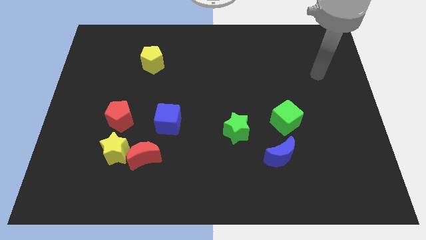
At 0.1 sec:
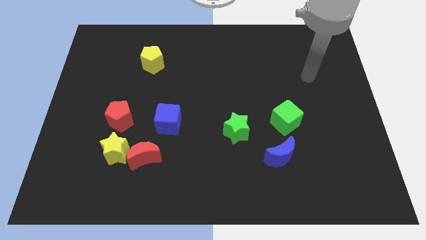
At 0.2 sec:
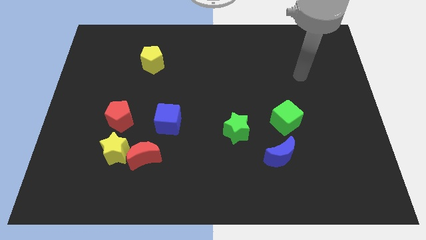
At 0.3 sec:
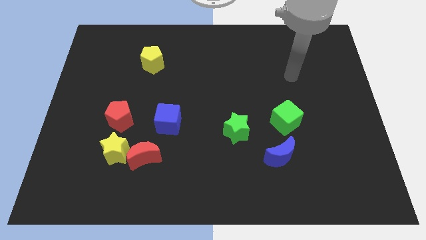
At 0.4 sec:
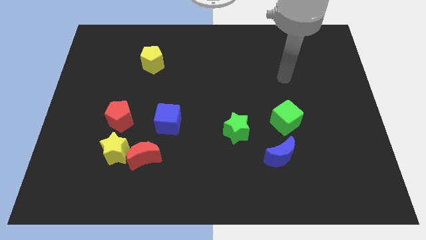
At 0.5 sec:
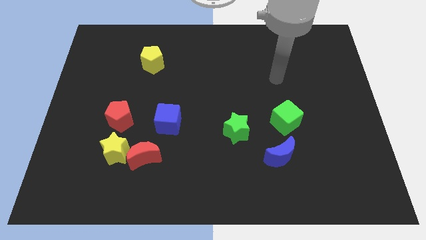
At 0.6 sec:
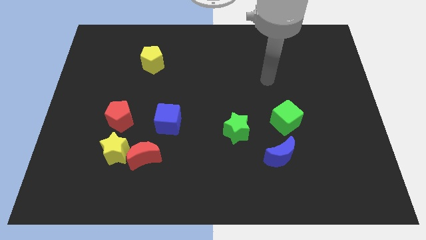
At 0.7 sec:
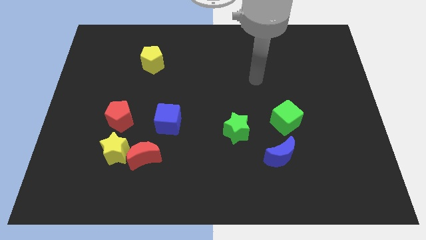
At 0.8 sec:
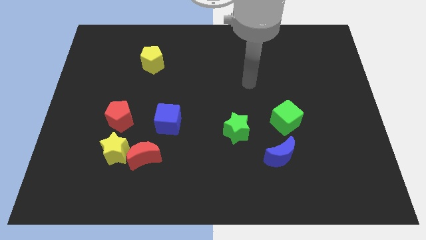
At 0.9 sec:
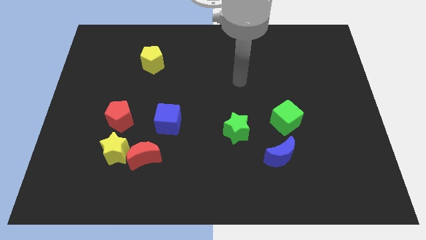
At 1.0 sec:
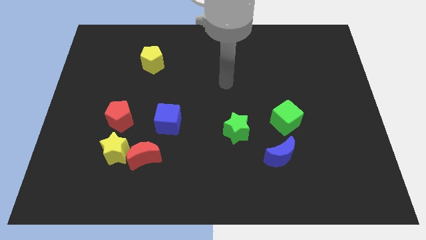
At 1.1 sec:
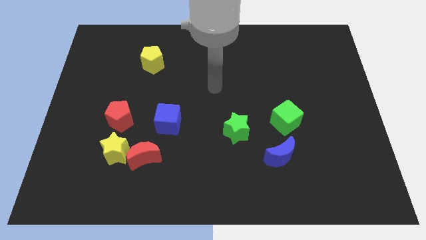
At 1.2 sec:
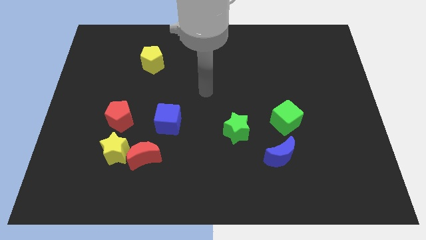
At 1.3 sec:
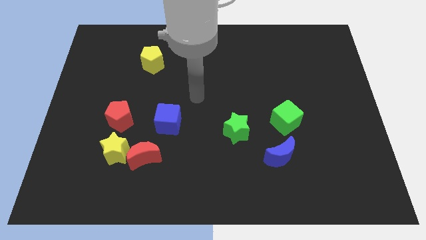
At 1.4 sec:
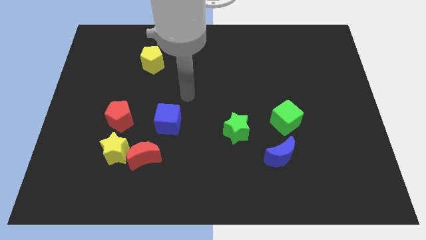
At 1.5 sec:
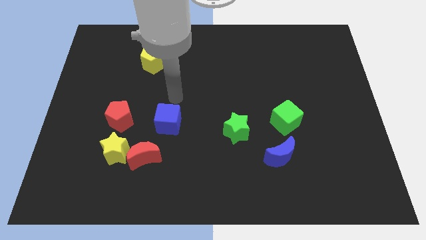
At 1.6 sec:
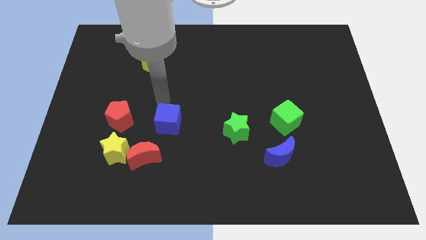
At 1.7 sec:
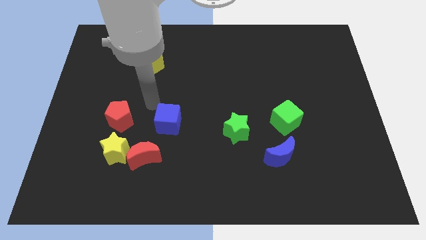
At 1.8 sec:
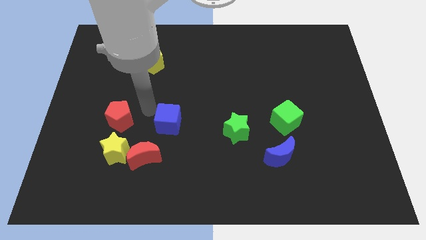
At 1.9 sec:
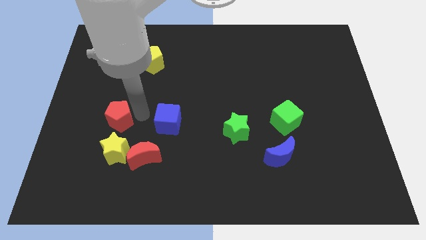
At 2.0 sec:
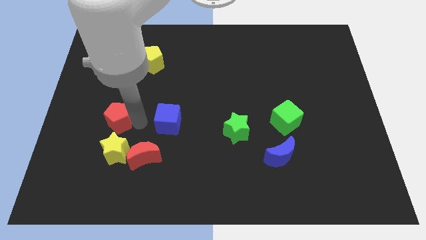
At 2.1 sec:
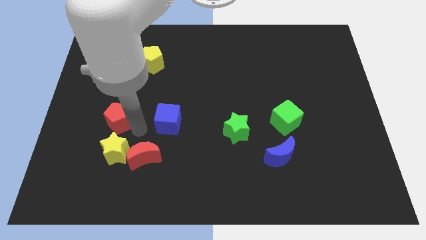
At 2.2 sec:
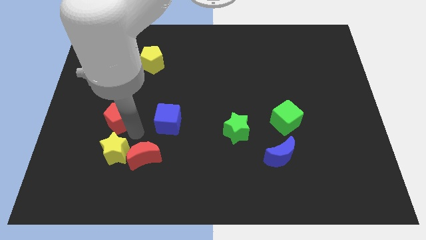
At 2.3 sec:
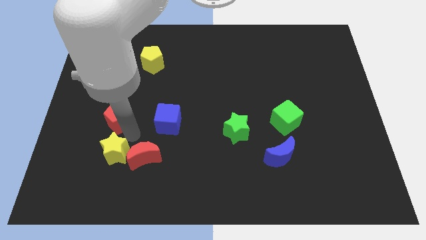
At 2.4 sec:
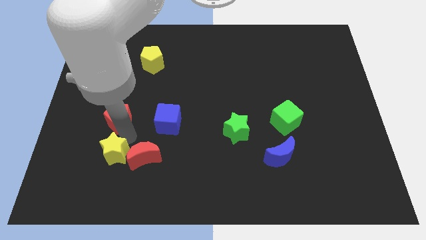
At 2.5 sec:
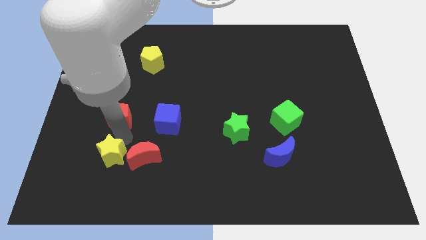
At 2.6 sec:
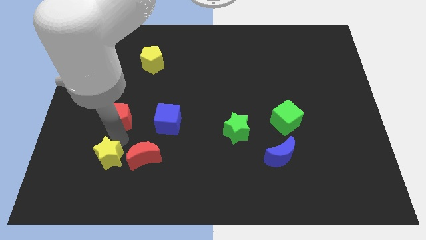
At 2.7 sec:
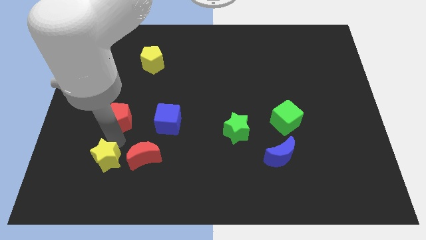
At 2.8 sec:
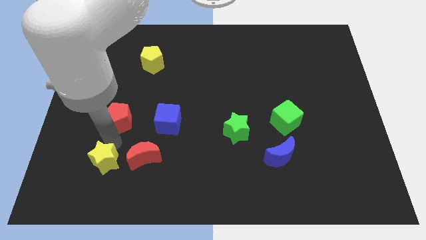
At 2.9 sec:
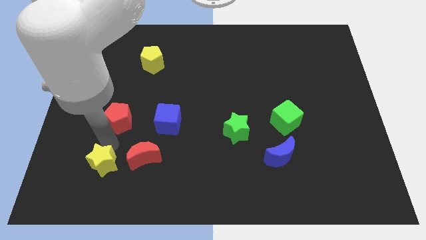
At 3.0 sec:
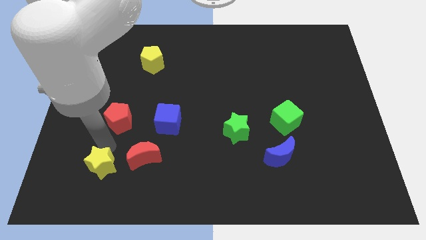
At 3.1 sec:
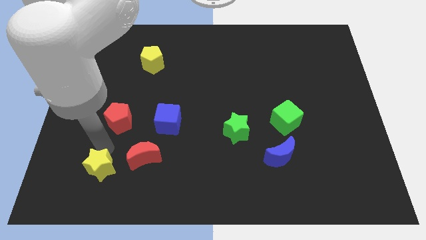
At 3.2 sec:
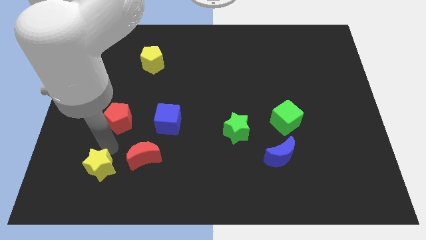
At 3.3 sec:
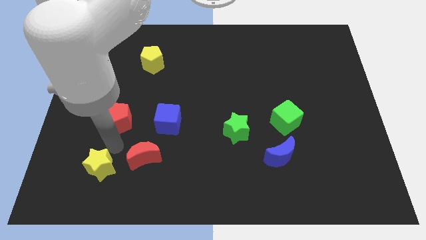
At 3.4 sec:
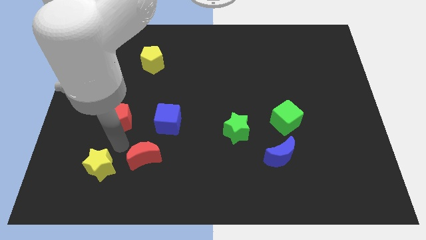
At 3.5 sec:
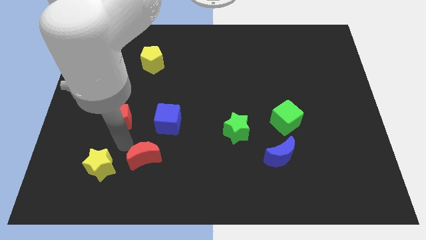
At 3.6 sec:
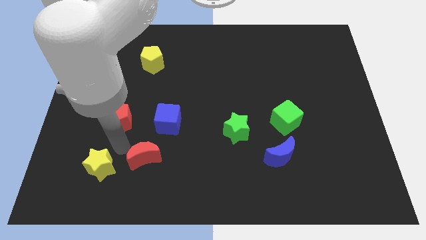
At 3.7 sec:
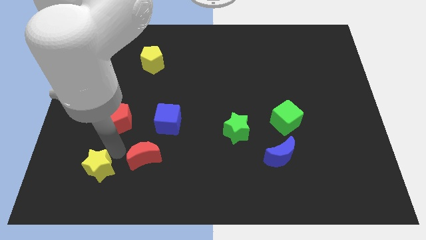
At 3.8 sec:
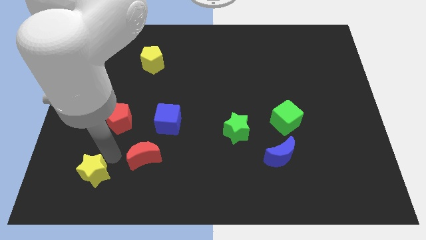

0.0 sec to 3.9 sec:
separate the yellow star from the red moon and red pentagon

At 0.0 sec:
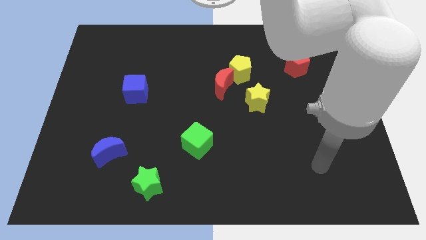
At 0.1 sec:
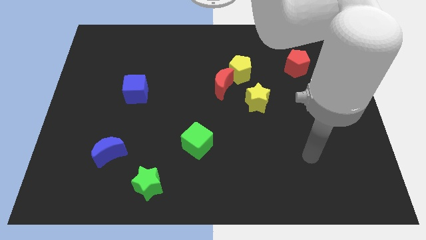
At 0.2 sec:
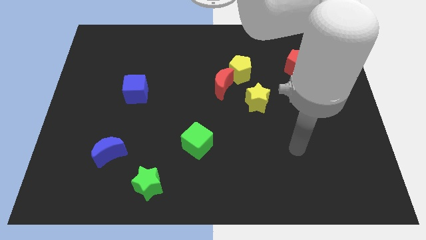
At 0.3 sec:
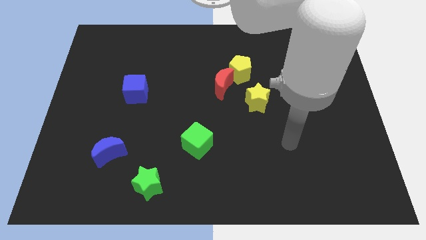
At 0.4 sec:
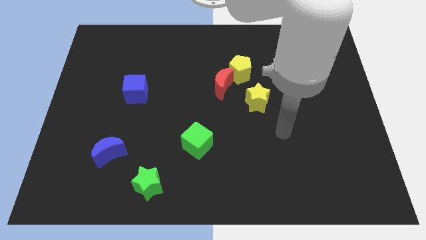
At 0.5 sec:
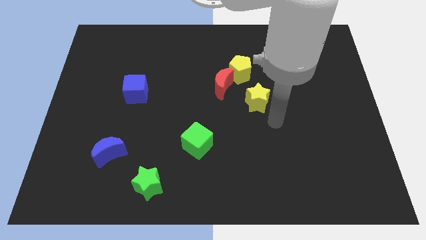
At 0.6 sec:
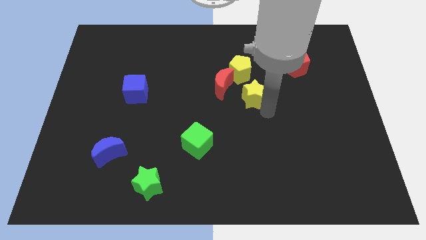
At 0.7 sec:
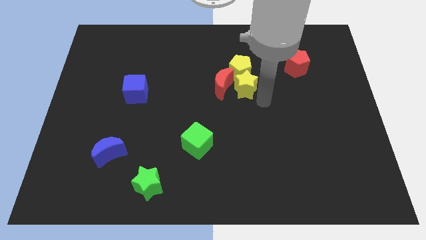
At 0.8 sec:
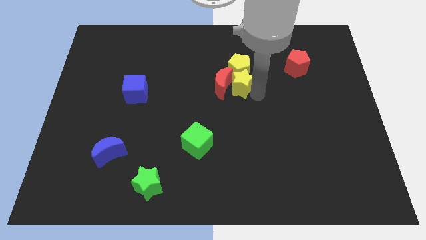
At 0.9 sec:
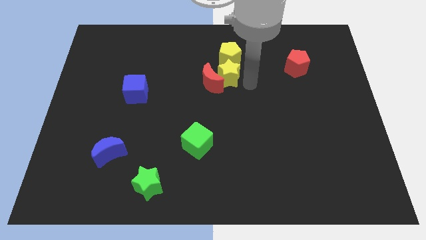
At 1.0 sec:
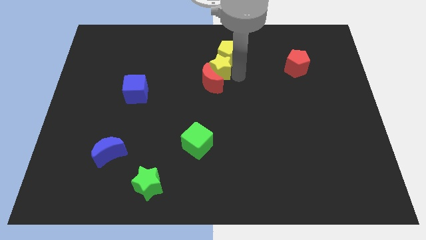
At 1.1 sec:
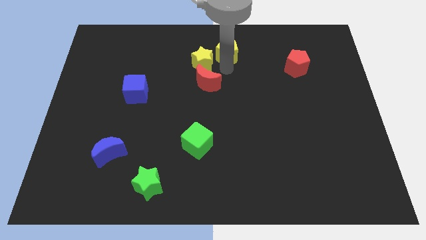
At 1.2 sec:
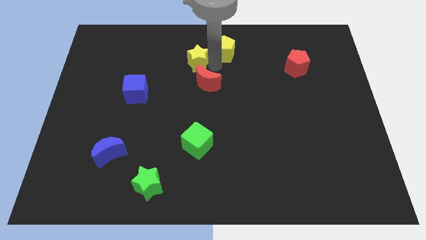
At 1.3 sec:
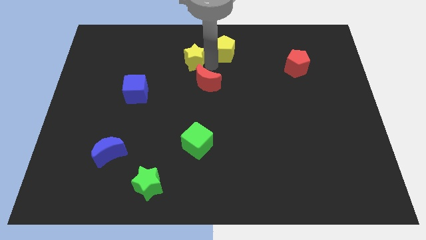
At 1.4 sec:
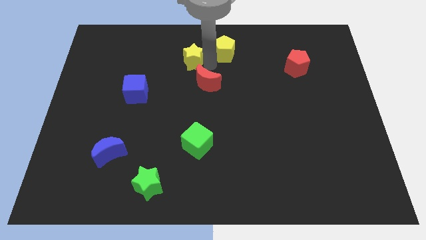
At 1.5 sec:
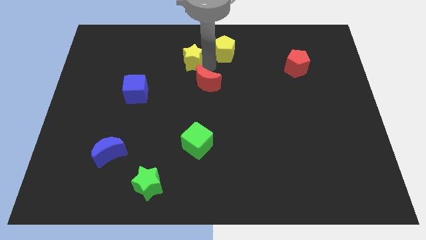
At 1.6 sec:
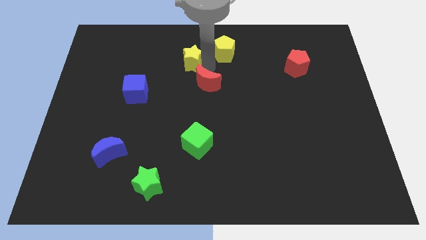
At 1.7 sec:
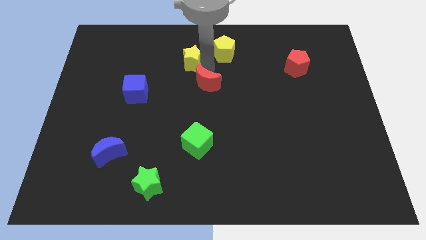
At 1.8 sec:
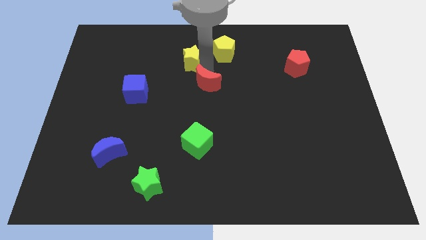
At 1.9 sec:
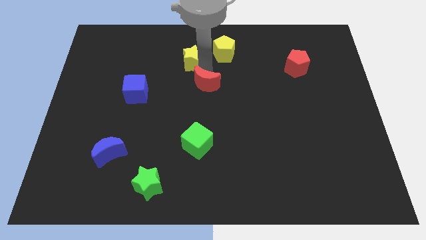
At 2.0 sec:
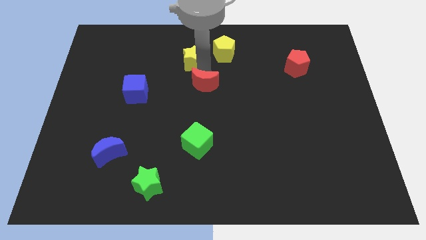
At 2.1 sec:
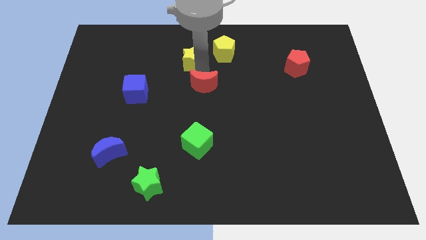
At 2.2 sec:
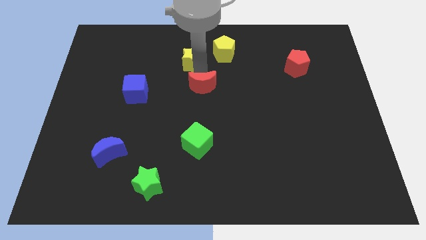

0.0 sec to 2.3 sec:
pull the red moon apart from the yellow pentagon and yellow star

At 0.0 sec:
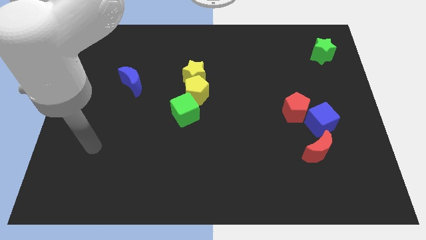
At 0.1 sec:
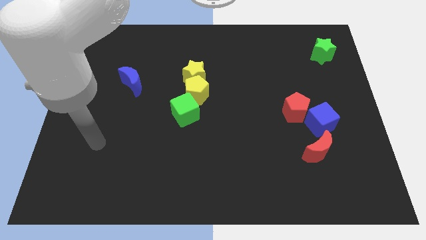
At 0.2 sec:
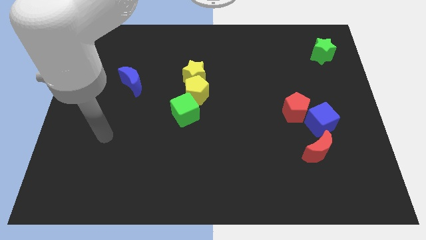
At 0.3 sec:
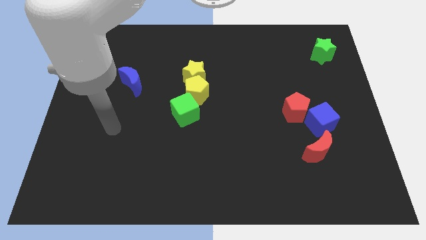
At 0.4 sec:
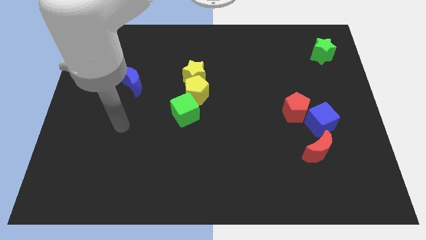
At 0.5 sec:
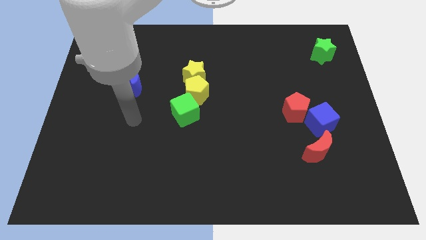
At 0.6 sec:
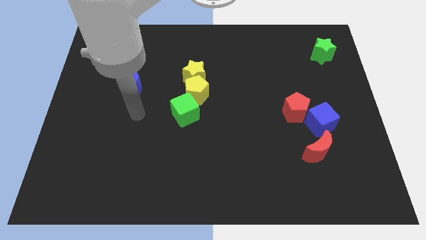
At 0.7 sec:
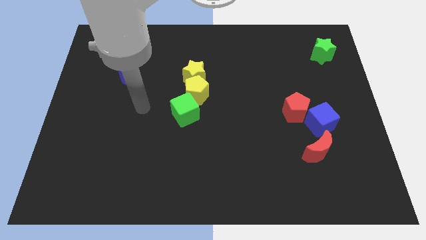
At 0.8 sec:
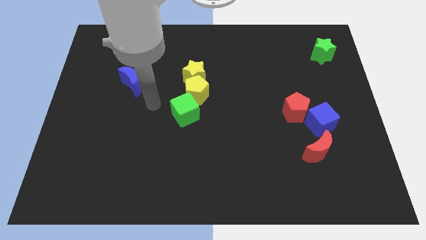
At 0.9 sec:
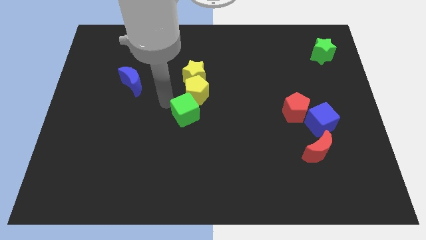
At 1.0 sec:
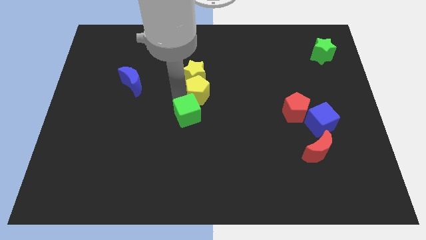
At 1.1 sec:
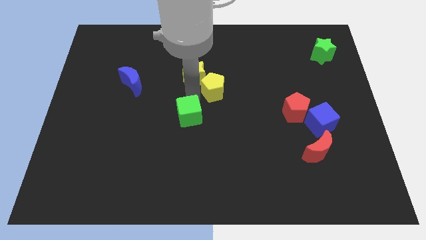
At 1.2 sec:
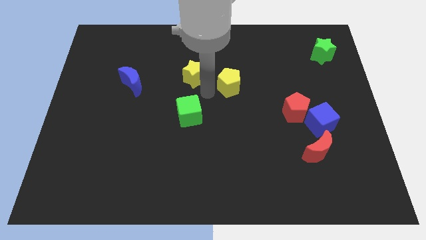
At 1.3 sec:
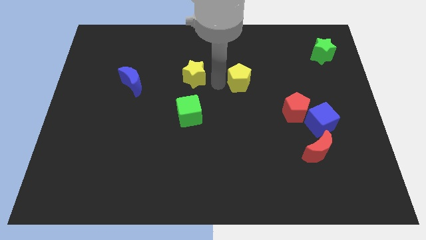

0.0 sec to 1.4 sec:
move the yellow star away from the yellow pentagon

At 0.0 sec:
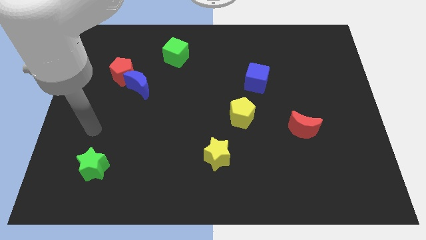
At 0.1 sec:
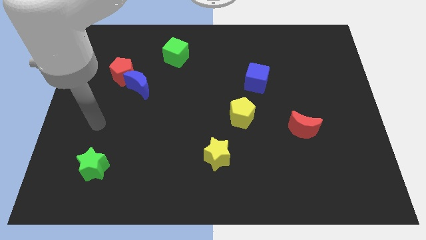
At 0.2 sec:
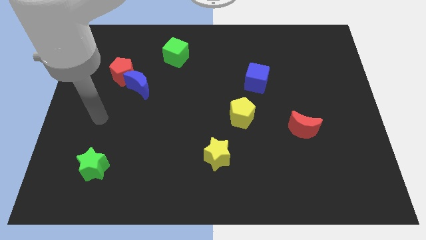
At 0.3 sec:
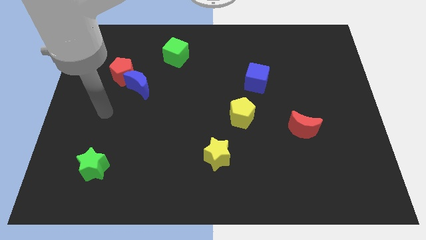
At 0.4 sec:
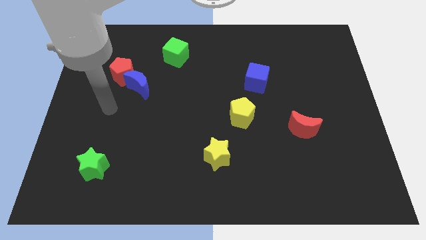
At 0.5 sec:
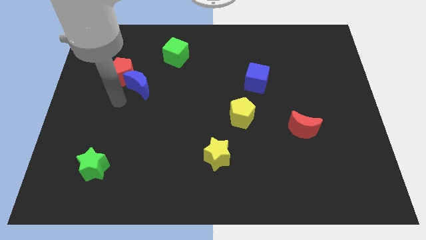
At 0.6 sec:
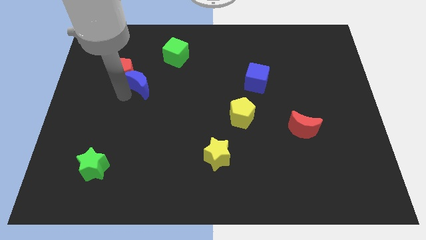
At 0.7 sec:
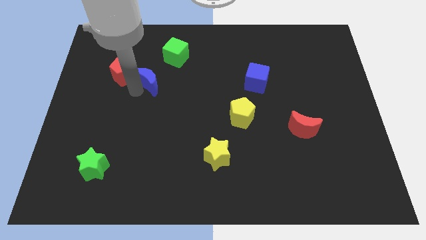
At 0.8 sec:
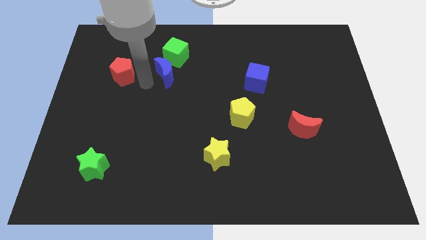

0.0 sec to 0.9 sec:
move the red pentagon away from the blue moon

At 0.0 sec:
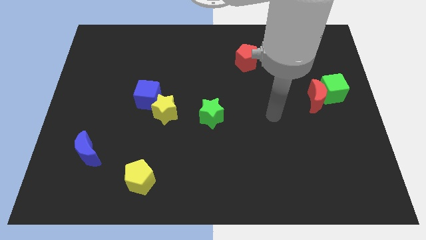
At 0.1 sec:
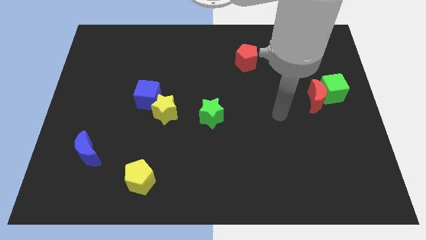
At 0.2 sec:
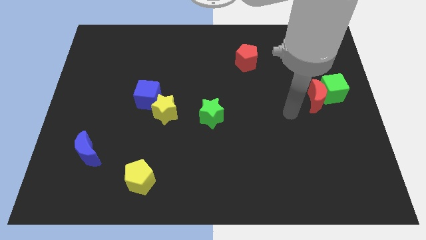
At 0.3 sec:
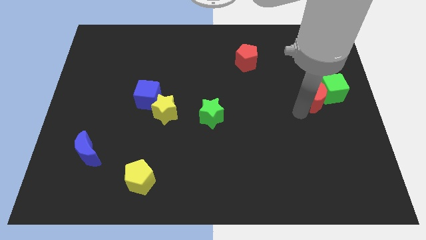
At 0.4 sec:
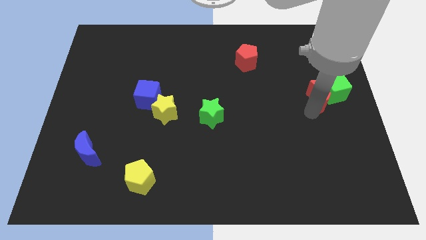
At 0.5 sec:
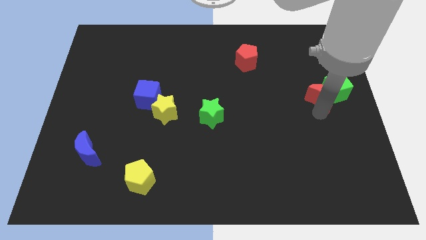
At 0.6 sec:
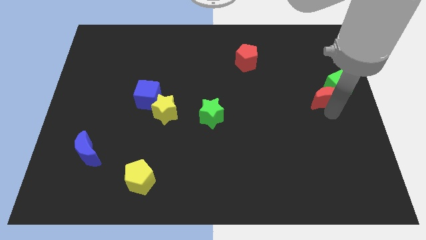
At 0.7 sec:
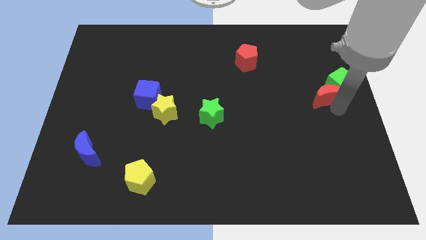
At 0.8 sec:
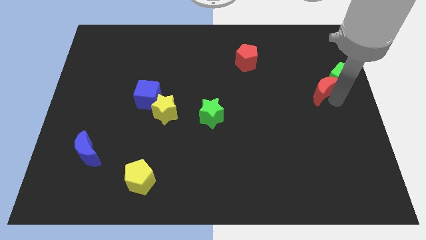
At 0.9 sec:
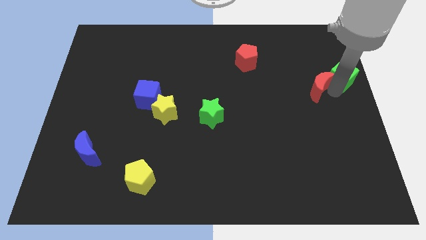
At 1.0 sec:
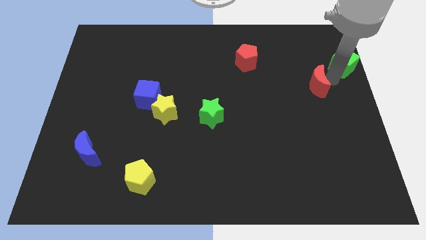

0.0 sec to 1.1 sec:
pull the red moon apart from the green cube
